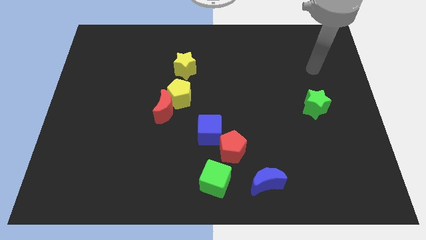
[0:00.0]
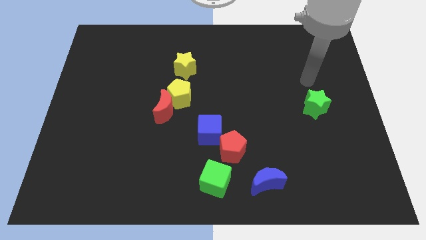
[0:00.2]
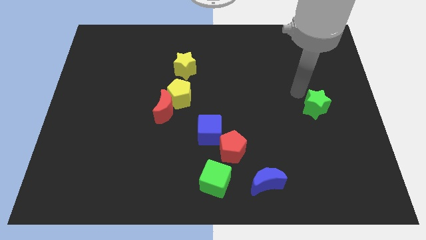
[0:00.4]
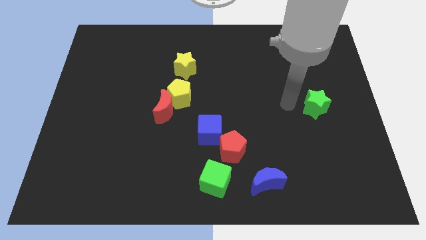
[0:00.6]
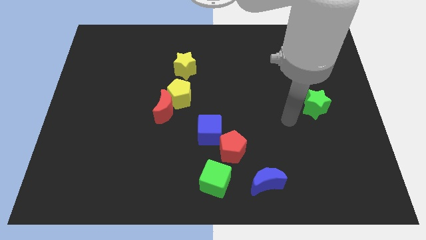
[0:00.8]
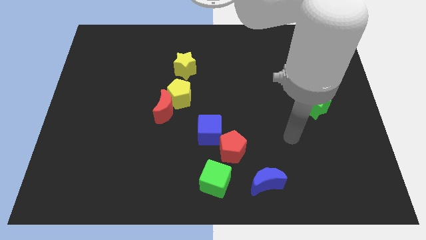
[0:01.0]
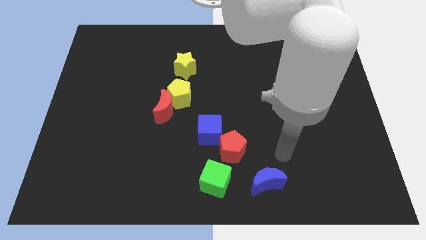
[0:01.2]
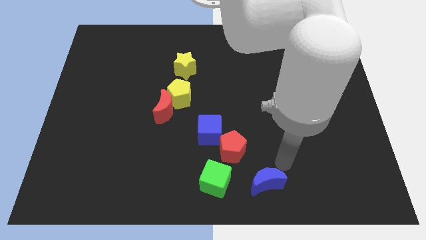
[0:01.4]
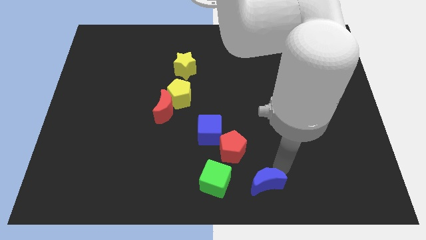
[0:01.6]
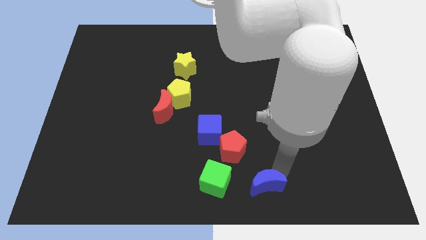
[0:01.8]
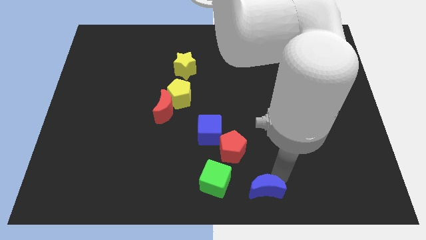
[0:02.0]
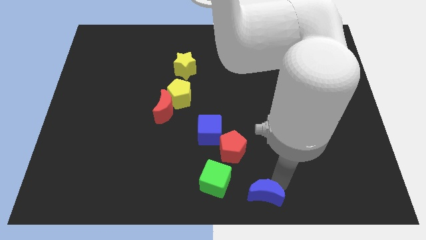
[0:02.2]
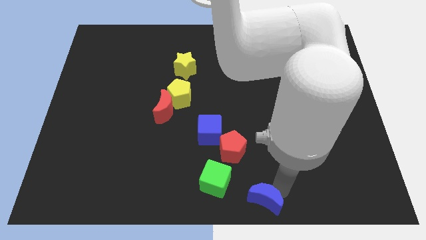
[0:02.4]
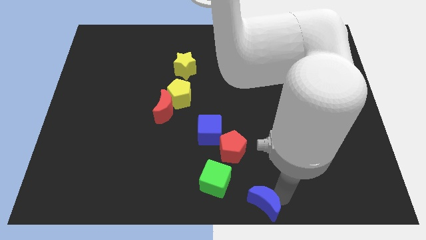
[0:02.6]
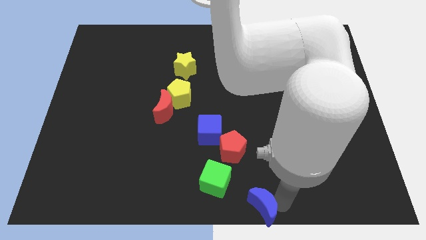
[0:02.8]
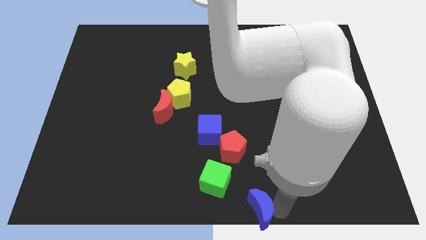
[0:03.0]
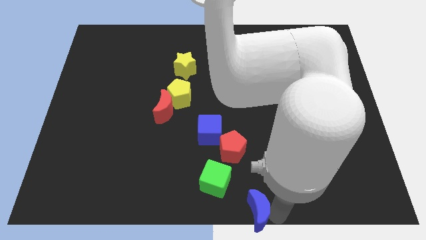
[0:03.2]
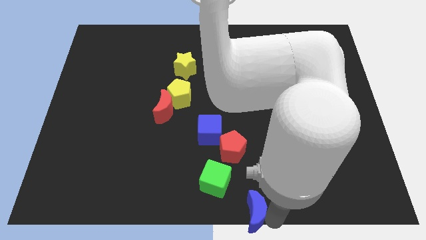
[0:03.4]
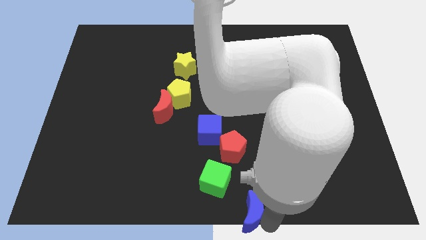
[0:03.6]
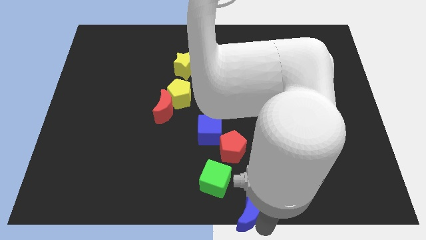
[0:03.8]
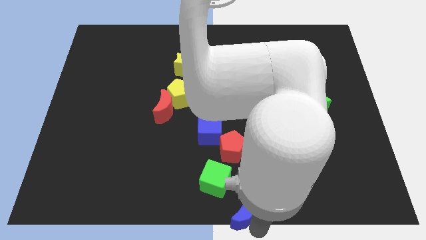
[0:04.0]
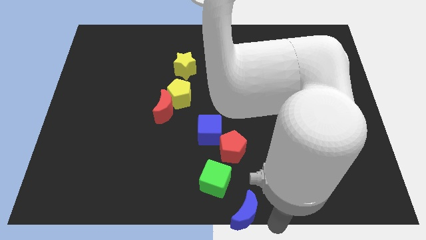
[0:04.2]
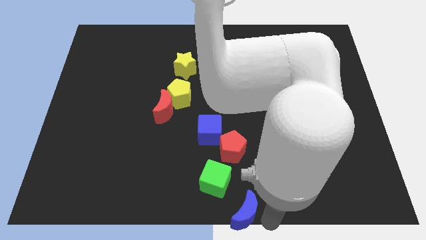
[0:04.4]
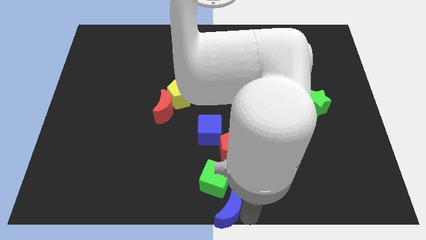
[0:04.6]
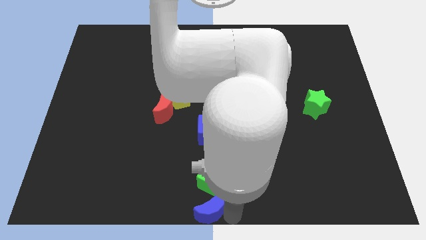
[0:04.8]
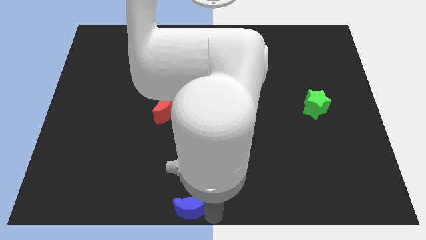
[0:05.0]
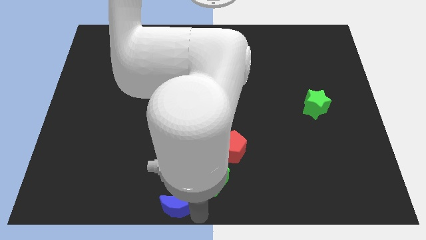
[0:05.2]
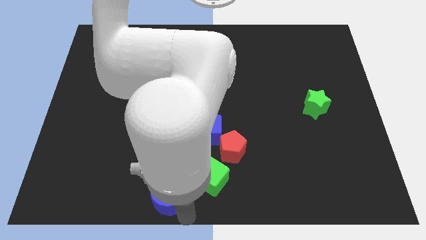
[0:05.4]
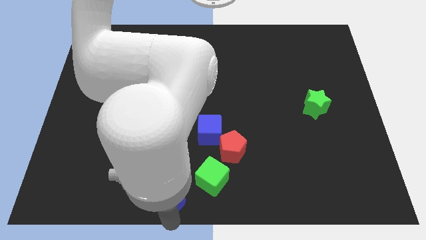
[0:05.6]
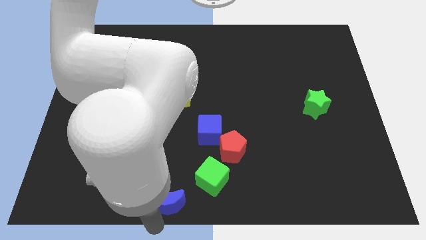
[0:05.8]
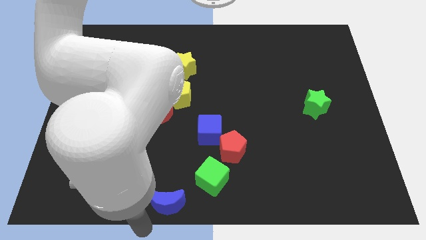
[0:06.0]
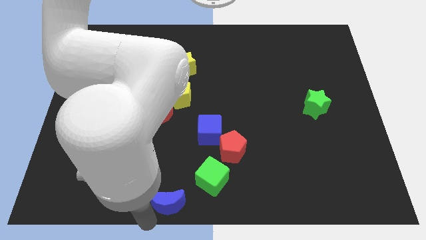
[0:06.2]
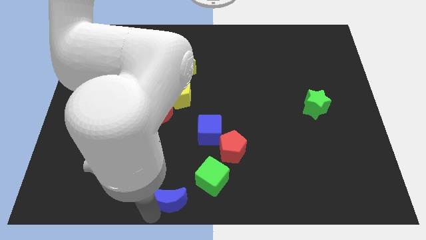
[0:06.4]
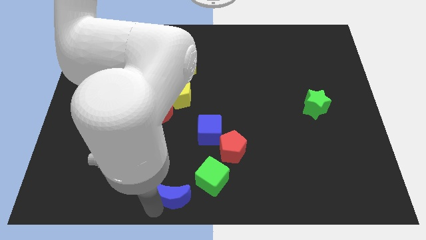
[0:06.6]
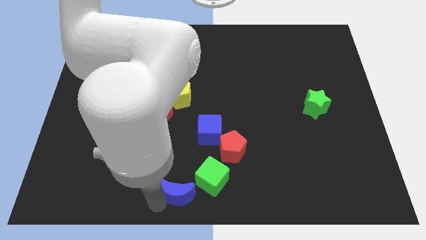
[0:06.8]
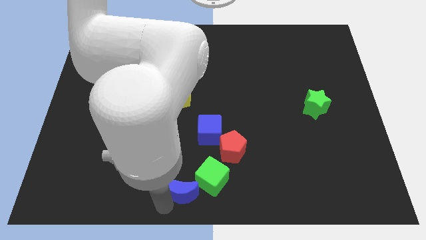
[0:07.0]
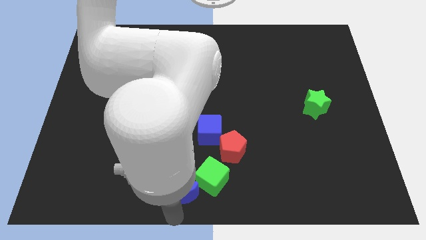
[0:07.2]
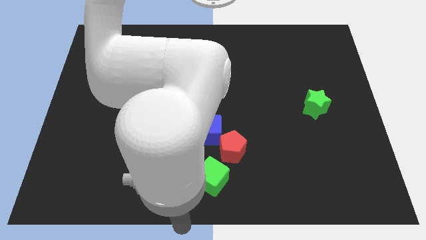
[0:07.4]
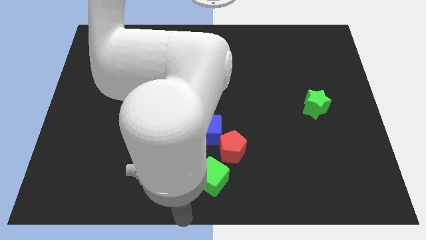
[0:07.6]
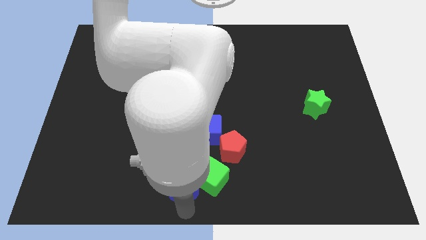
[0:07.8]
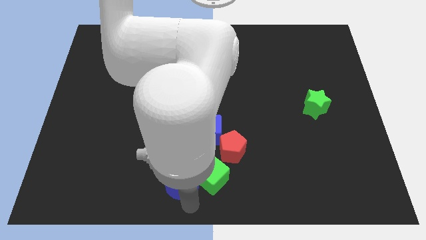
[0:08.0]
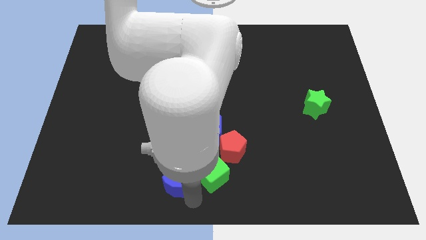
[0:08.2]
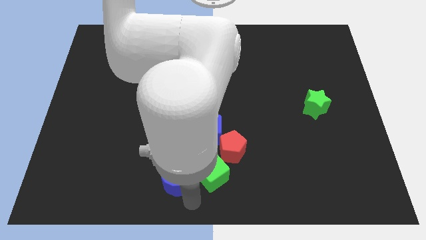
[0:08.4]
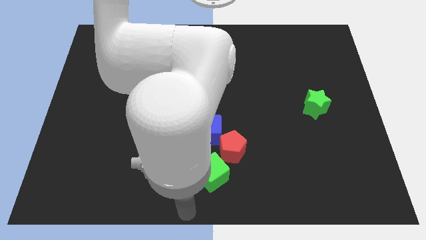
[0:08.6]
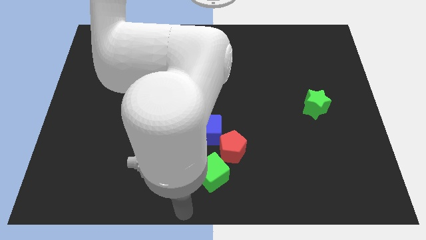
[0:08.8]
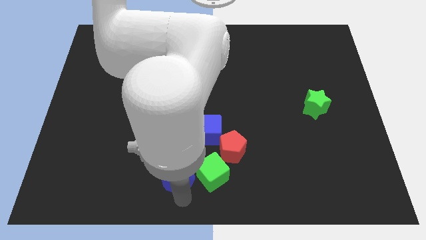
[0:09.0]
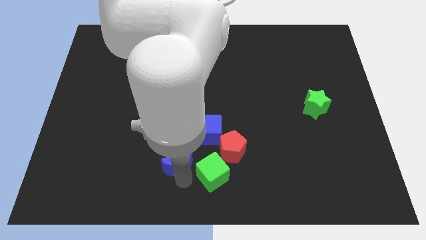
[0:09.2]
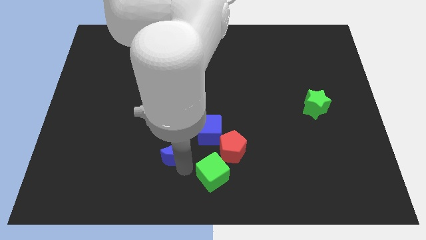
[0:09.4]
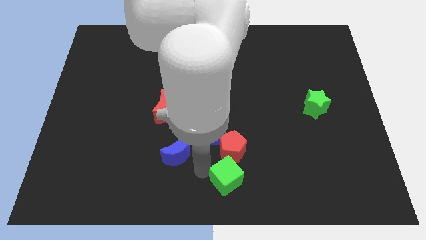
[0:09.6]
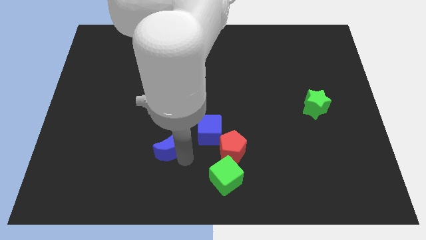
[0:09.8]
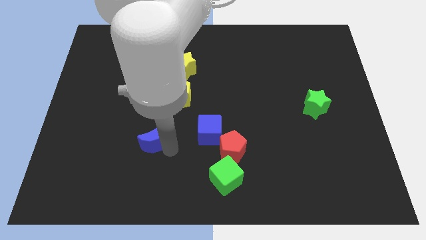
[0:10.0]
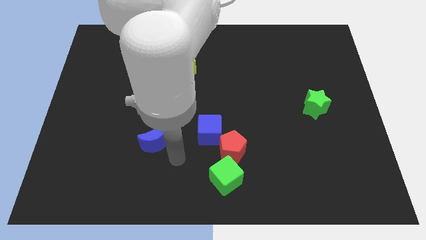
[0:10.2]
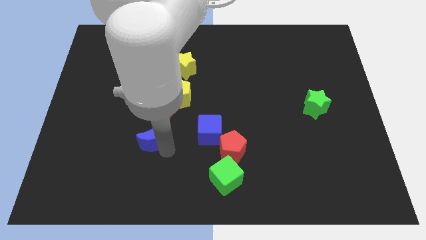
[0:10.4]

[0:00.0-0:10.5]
push the blue moon to the bottom left of the red moon
